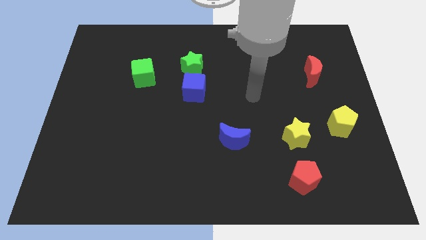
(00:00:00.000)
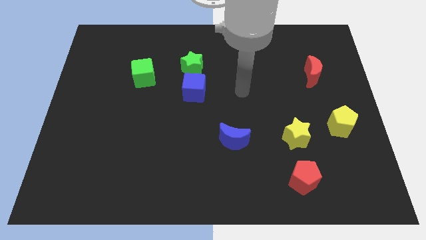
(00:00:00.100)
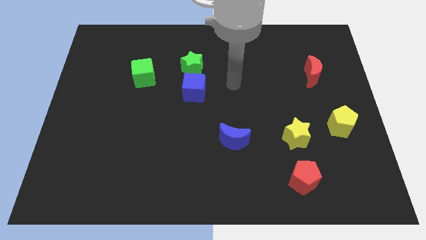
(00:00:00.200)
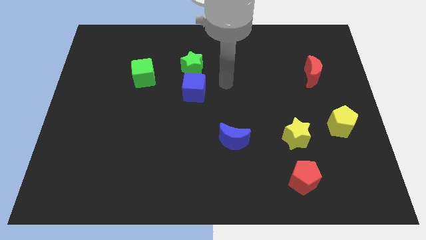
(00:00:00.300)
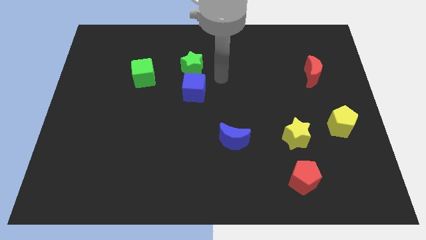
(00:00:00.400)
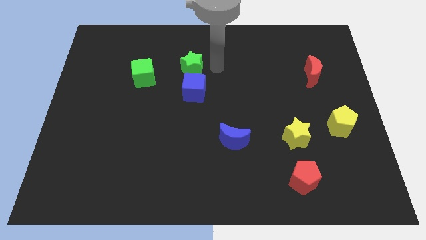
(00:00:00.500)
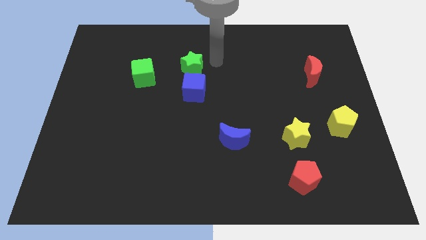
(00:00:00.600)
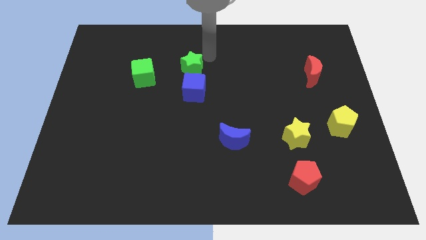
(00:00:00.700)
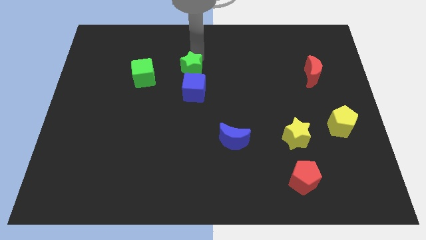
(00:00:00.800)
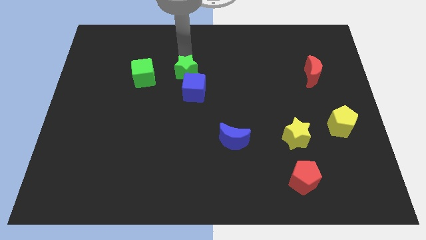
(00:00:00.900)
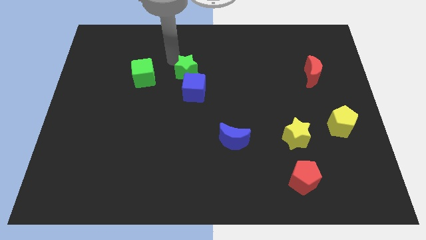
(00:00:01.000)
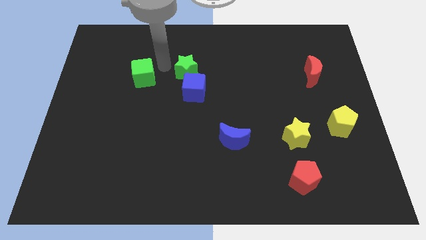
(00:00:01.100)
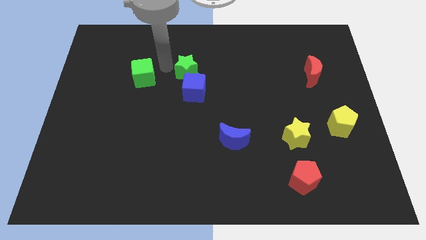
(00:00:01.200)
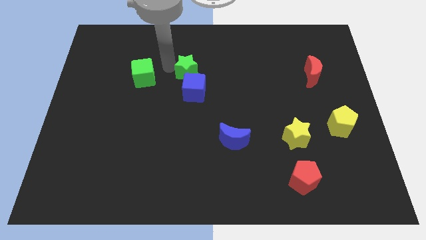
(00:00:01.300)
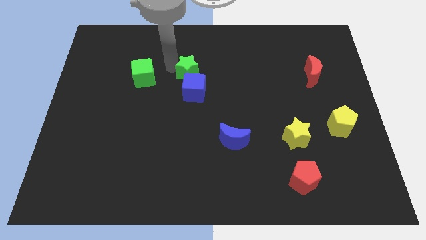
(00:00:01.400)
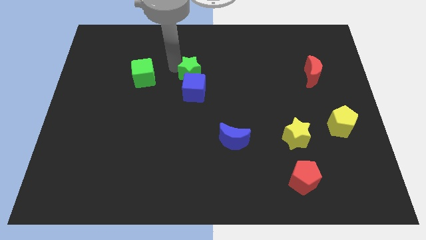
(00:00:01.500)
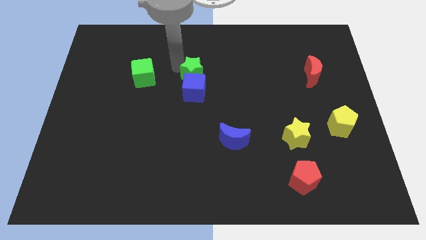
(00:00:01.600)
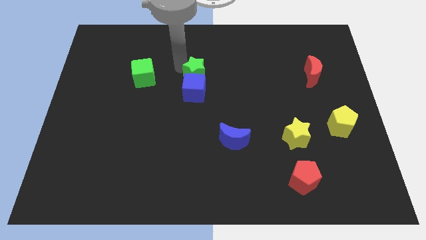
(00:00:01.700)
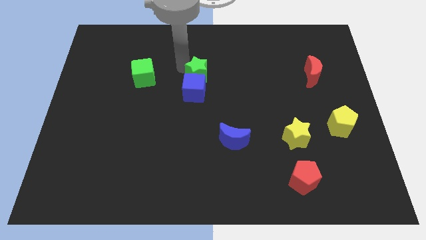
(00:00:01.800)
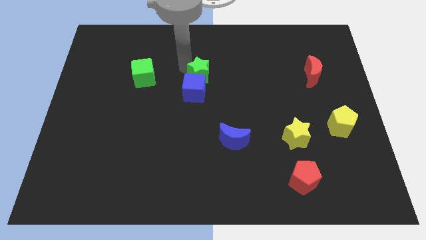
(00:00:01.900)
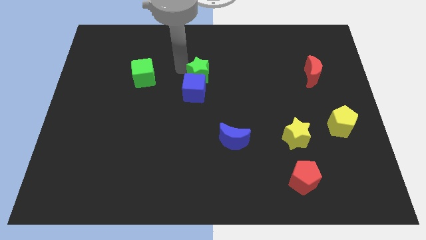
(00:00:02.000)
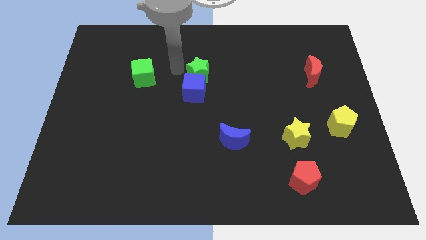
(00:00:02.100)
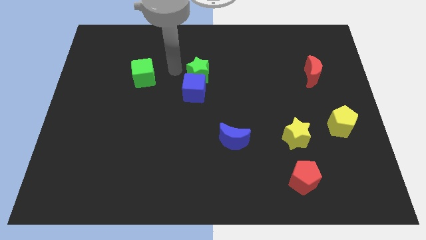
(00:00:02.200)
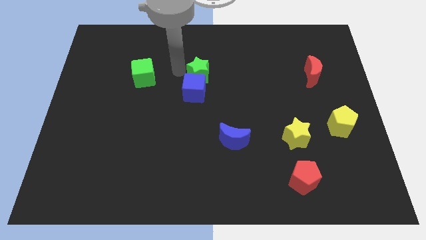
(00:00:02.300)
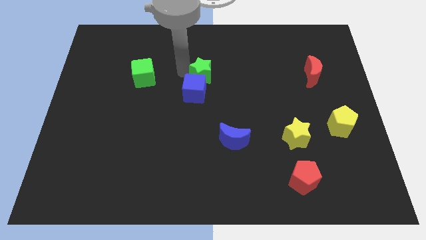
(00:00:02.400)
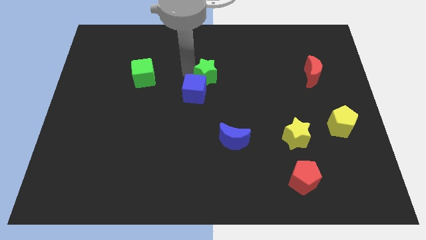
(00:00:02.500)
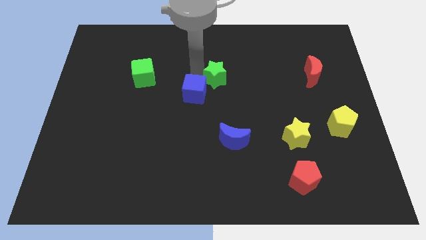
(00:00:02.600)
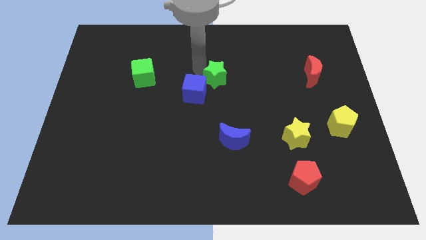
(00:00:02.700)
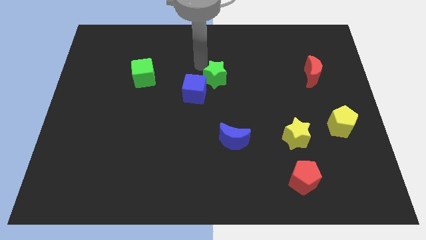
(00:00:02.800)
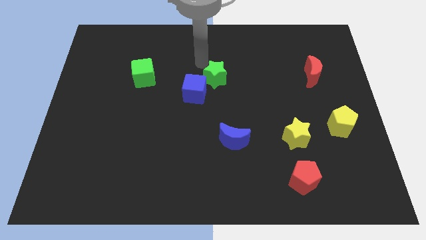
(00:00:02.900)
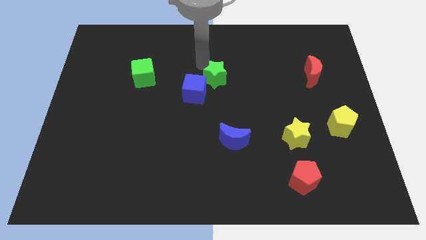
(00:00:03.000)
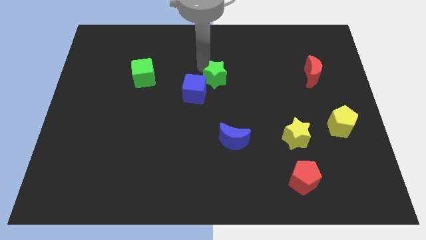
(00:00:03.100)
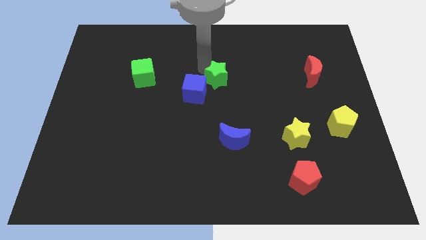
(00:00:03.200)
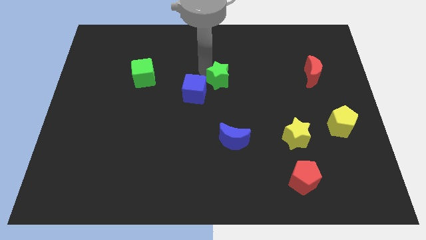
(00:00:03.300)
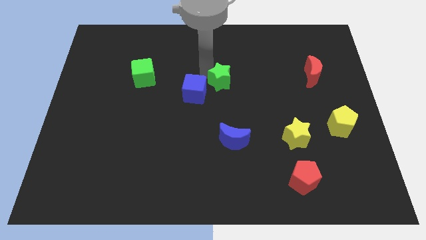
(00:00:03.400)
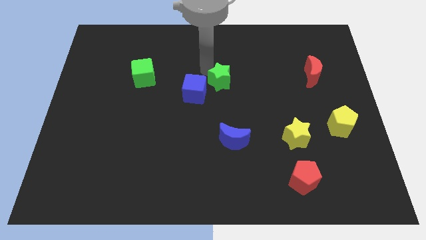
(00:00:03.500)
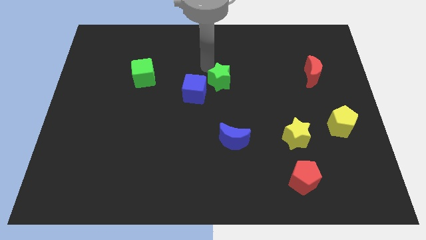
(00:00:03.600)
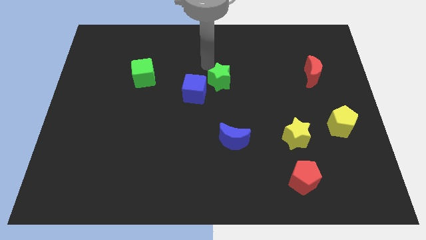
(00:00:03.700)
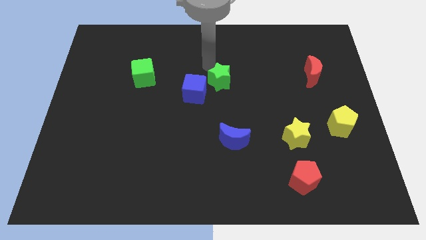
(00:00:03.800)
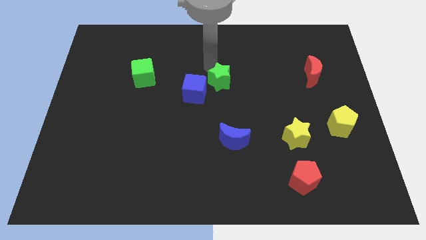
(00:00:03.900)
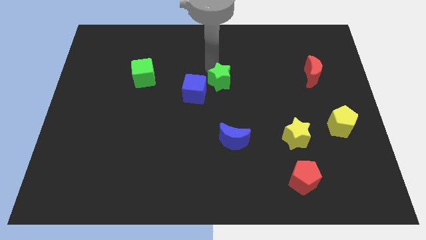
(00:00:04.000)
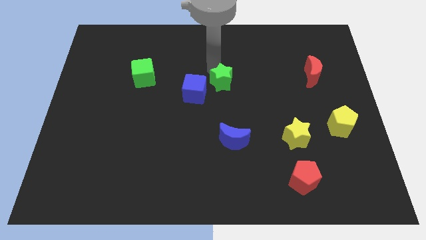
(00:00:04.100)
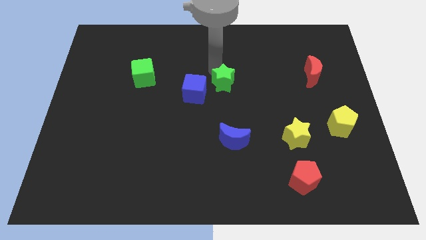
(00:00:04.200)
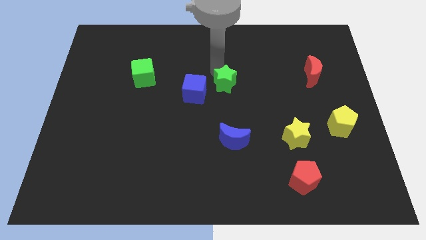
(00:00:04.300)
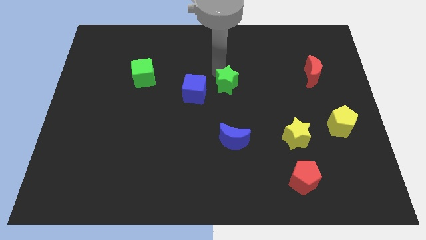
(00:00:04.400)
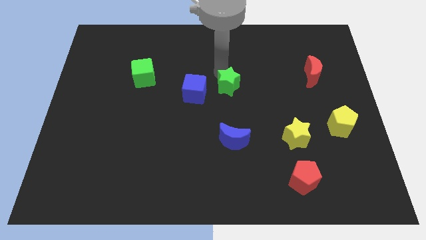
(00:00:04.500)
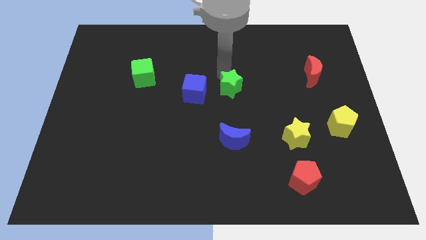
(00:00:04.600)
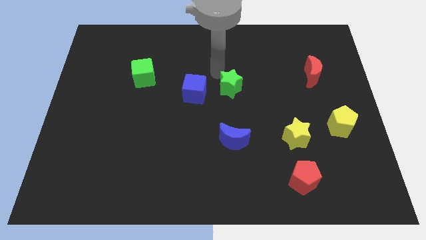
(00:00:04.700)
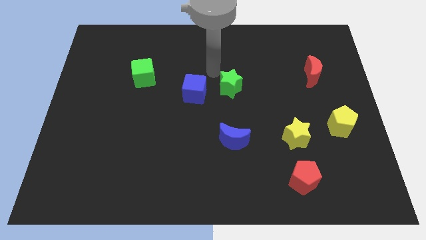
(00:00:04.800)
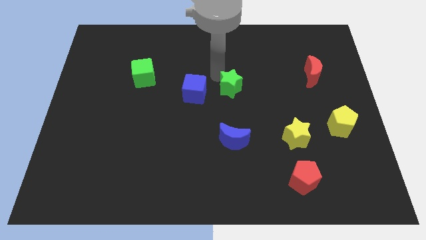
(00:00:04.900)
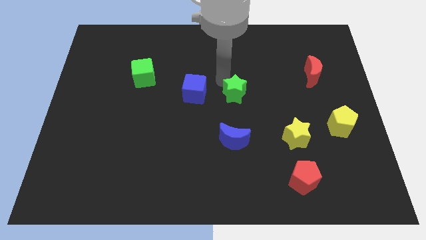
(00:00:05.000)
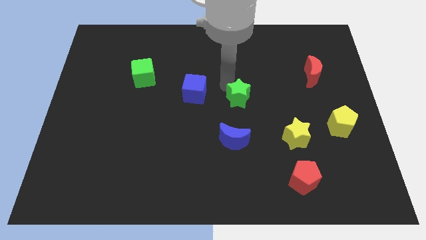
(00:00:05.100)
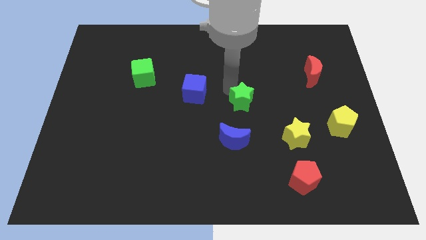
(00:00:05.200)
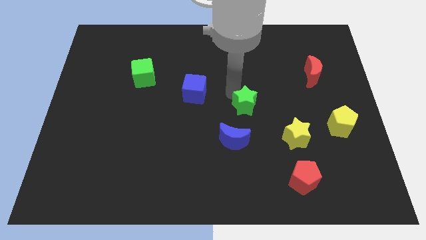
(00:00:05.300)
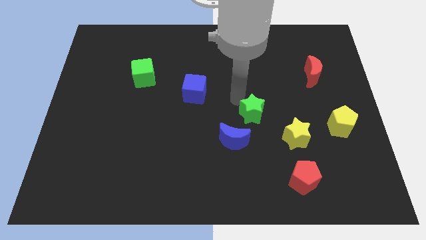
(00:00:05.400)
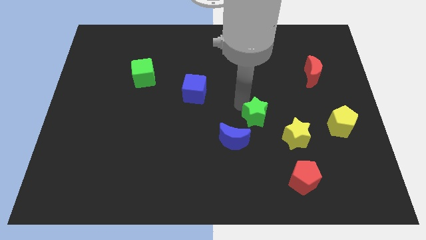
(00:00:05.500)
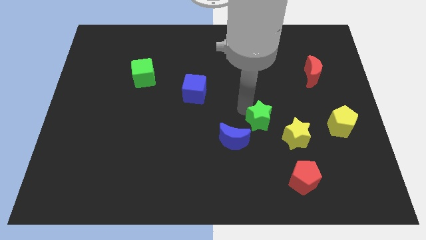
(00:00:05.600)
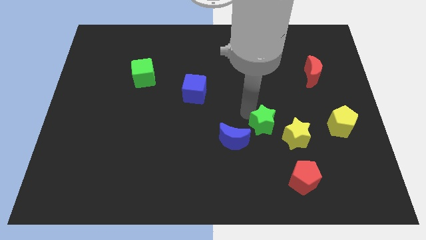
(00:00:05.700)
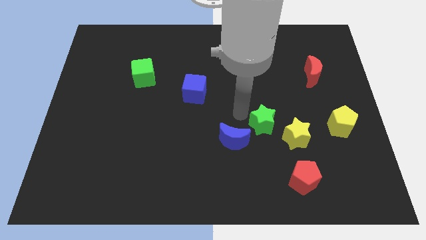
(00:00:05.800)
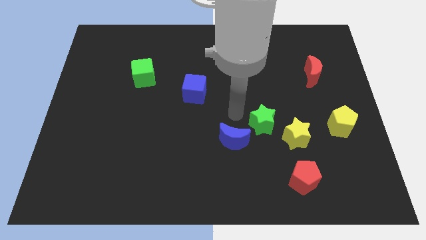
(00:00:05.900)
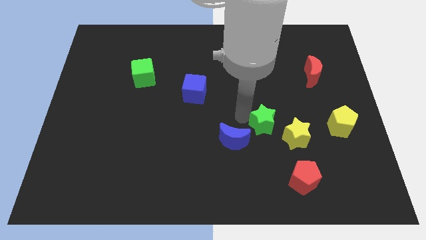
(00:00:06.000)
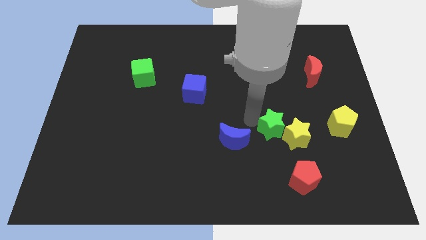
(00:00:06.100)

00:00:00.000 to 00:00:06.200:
slide the green star close to the yellow star
